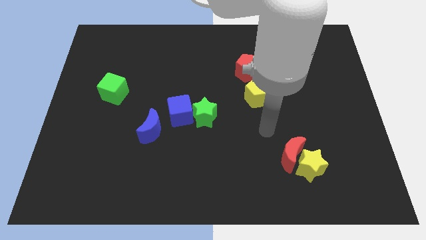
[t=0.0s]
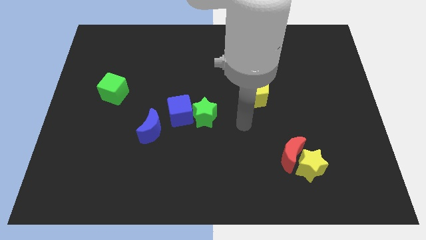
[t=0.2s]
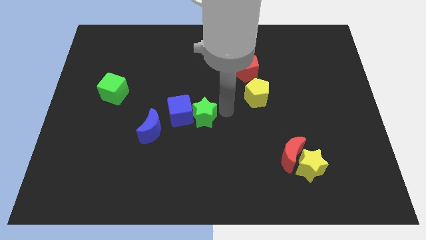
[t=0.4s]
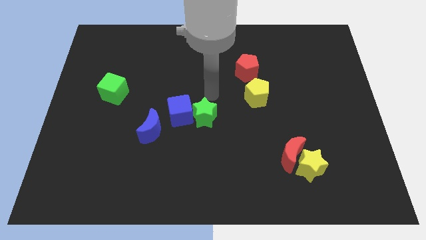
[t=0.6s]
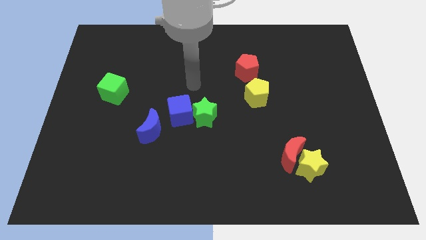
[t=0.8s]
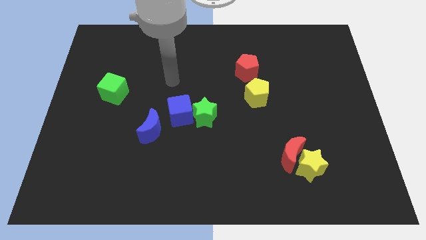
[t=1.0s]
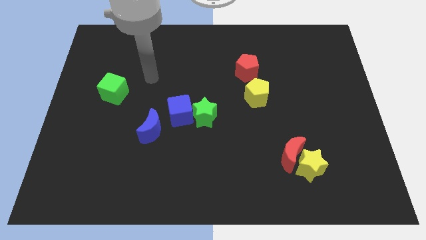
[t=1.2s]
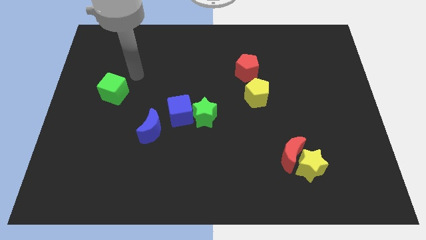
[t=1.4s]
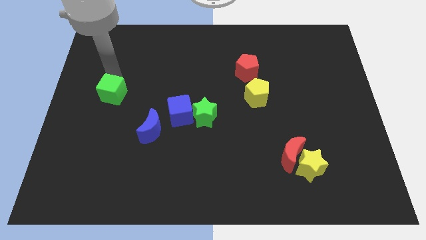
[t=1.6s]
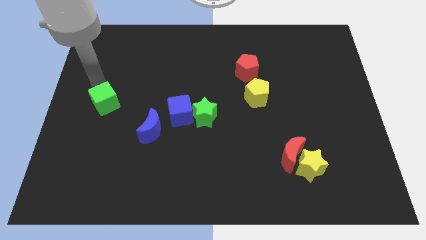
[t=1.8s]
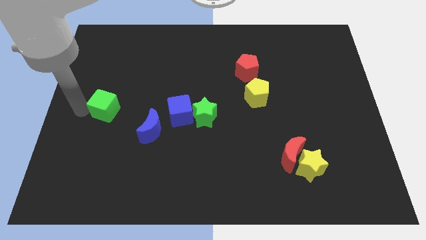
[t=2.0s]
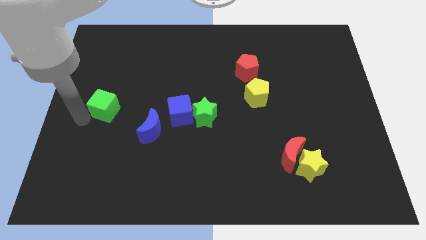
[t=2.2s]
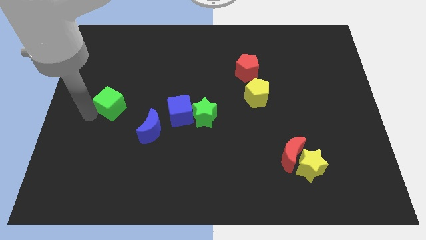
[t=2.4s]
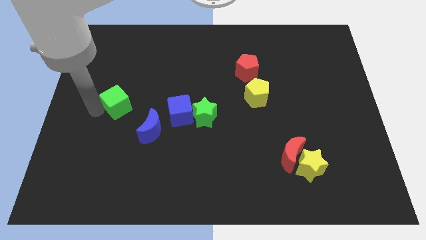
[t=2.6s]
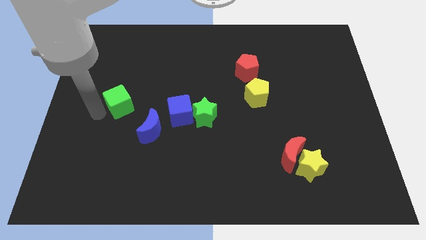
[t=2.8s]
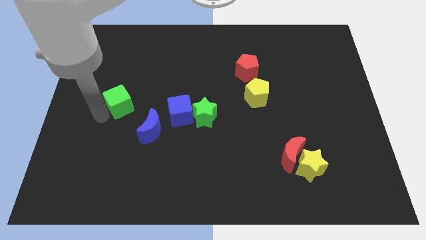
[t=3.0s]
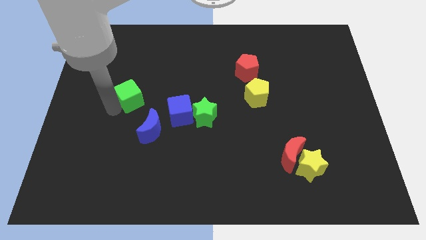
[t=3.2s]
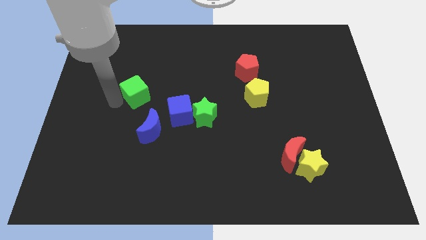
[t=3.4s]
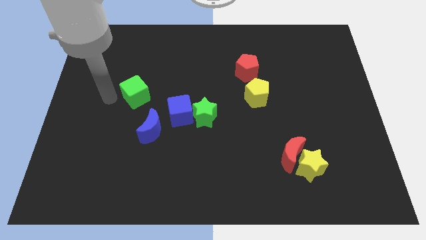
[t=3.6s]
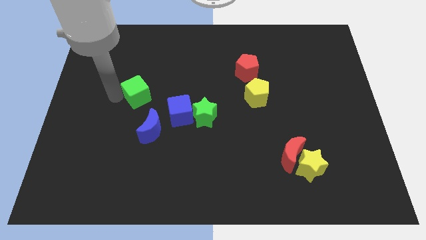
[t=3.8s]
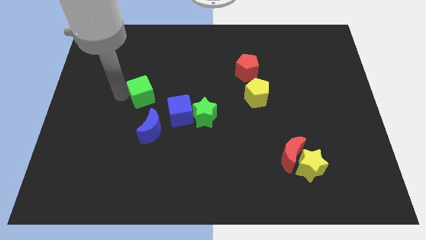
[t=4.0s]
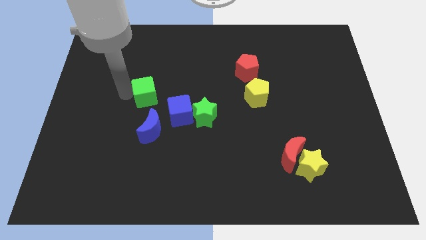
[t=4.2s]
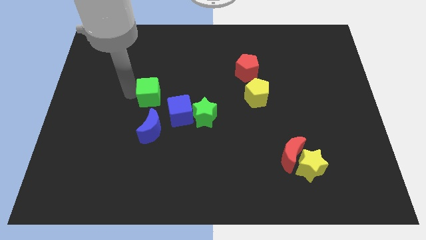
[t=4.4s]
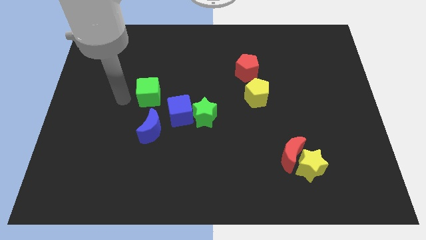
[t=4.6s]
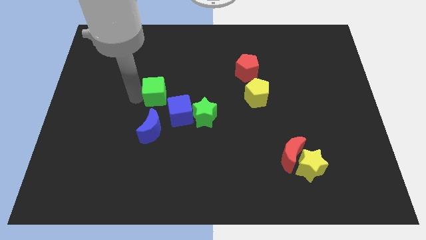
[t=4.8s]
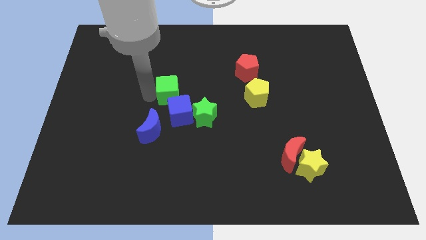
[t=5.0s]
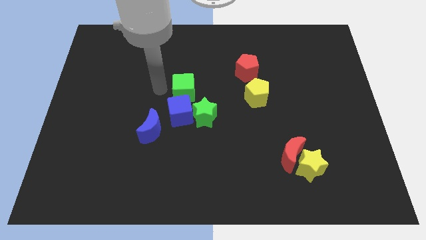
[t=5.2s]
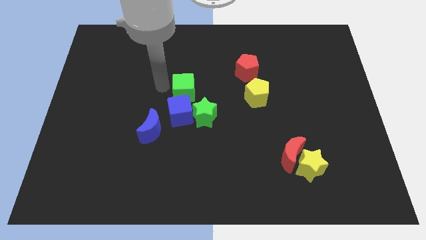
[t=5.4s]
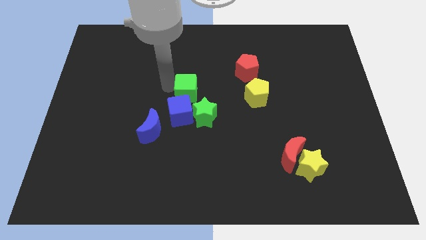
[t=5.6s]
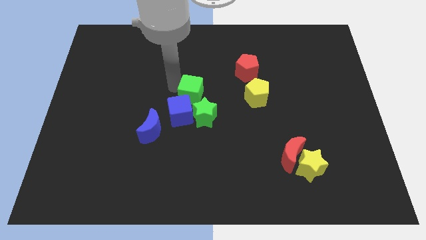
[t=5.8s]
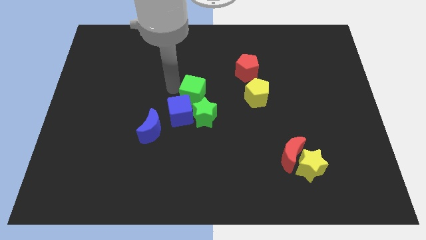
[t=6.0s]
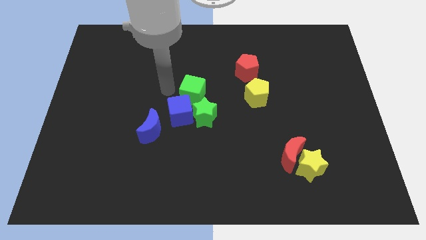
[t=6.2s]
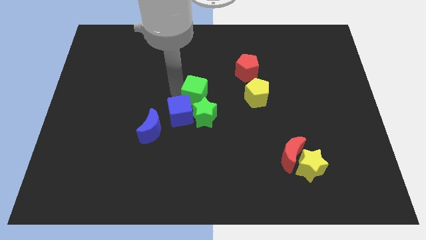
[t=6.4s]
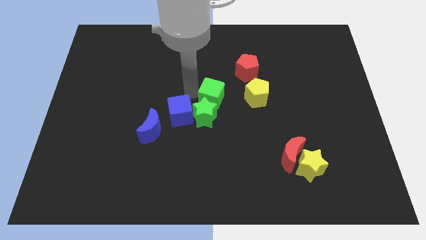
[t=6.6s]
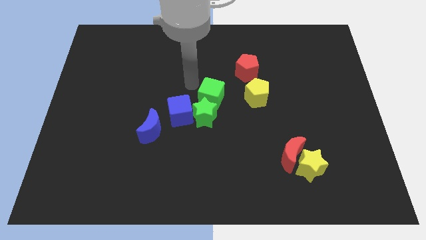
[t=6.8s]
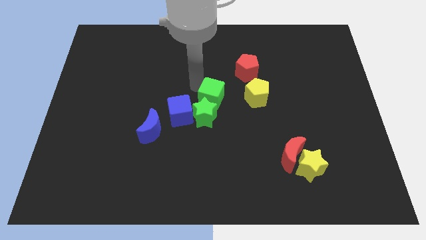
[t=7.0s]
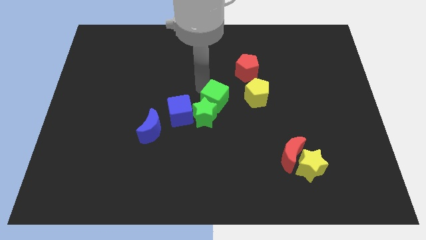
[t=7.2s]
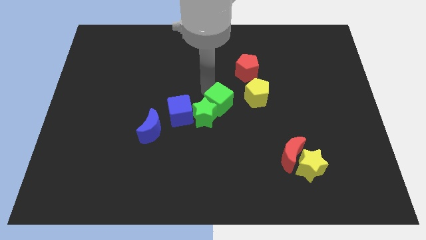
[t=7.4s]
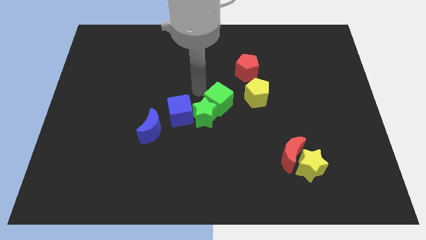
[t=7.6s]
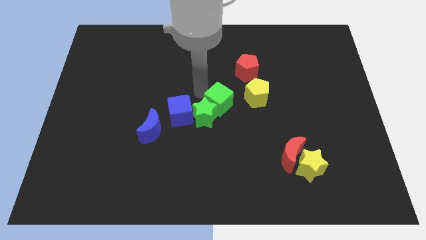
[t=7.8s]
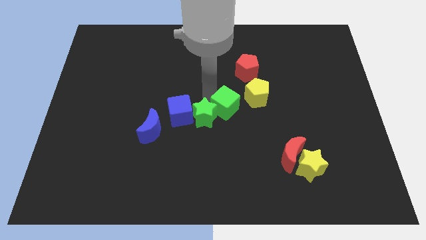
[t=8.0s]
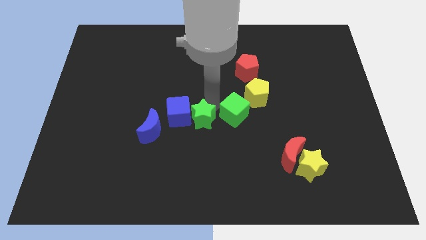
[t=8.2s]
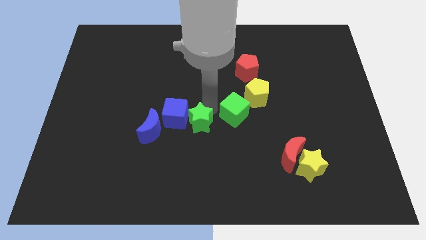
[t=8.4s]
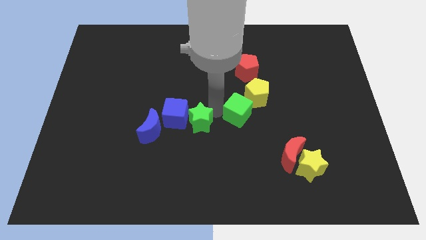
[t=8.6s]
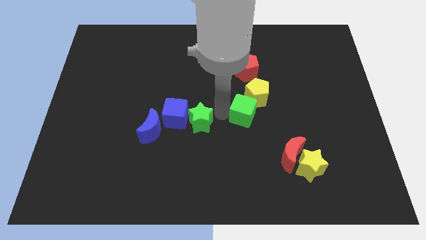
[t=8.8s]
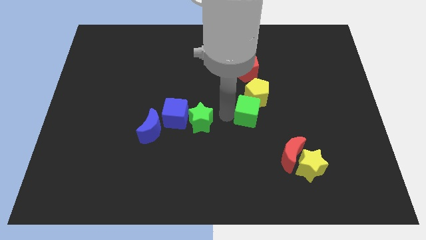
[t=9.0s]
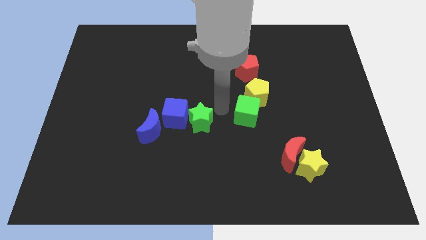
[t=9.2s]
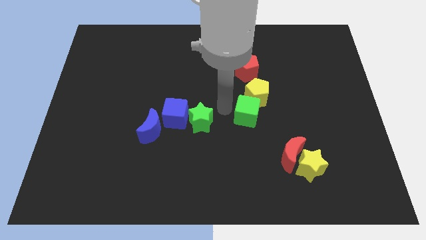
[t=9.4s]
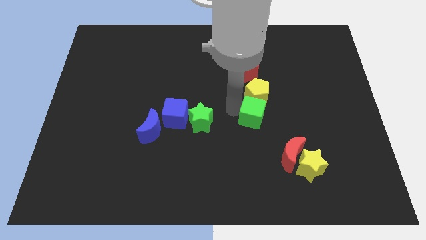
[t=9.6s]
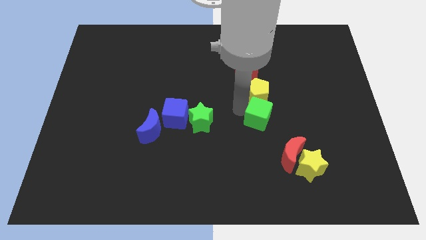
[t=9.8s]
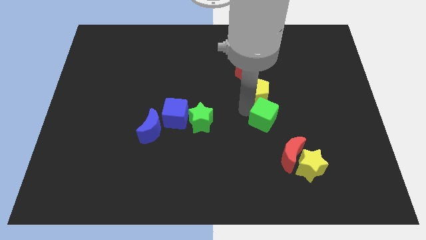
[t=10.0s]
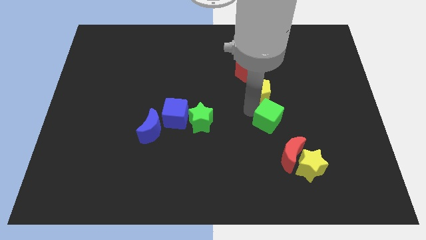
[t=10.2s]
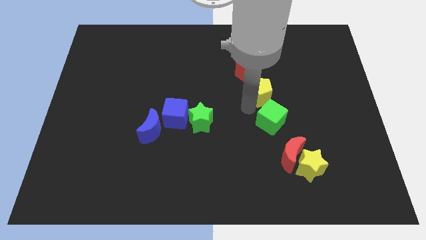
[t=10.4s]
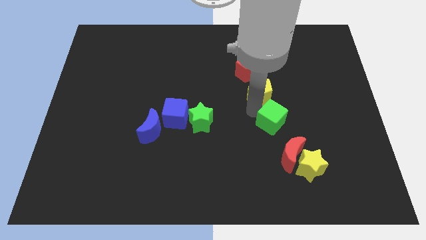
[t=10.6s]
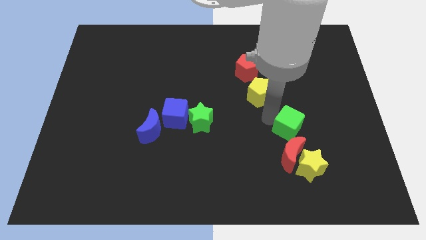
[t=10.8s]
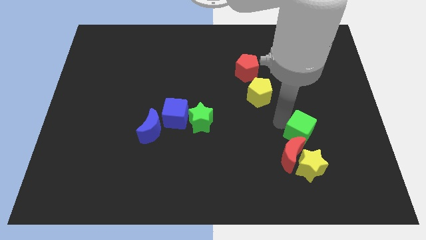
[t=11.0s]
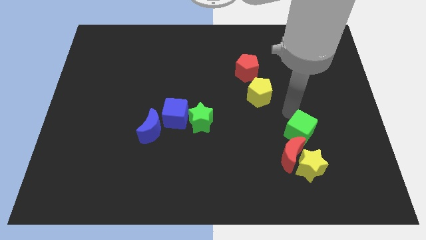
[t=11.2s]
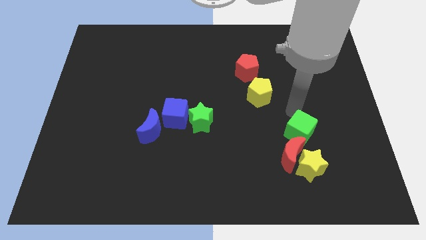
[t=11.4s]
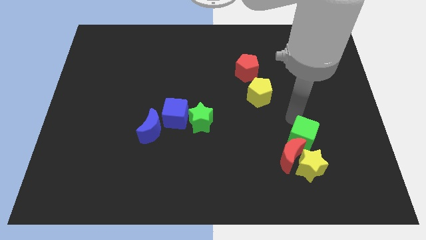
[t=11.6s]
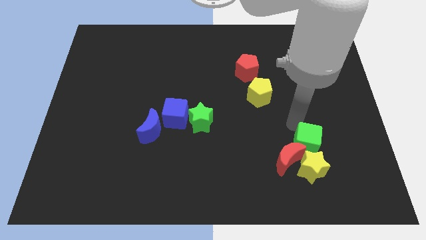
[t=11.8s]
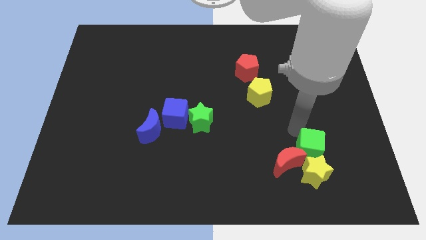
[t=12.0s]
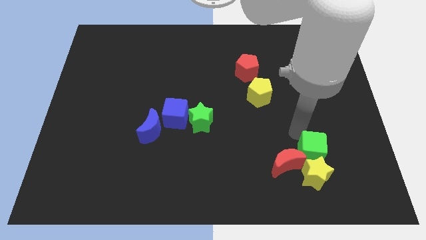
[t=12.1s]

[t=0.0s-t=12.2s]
move the green cube towards the yellow star

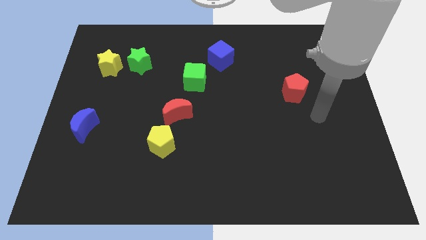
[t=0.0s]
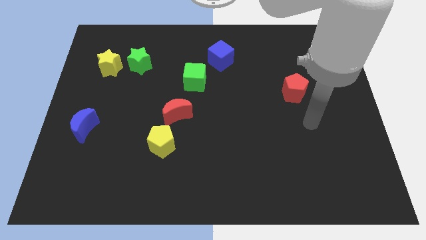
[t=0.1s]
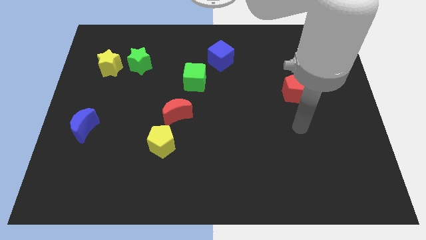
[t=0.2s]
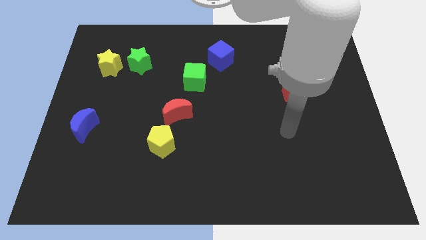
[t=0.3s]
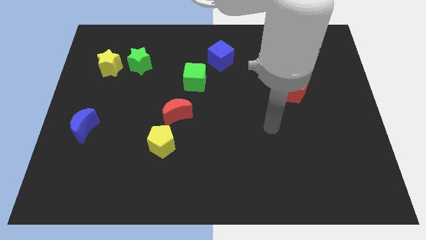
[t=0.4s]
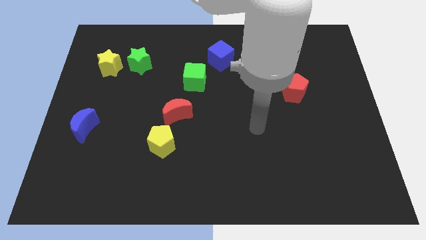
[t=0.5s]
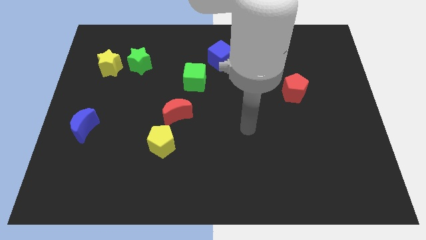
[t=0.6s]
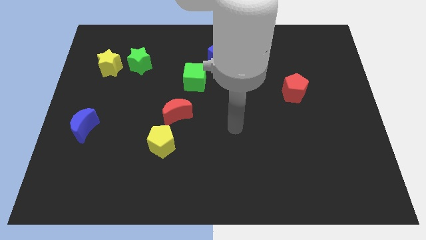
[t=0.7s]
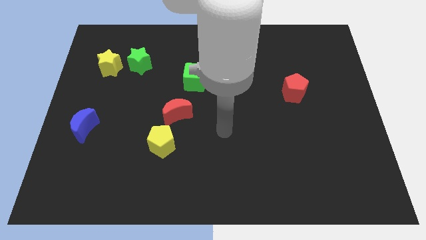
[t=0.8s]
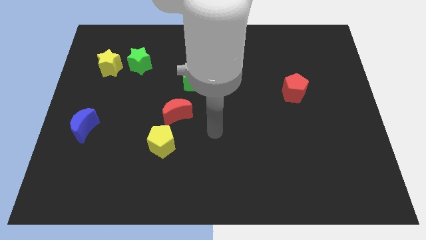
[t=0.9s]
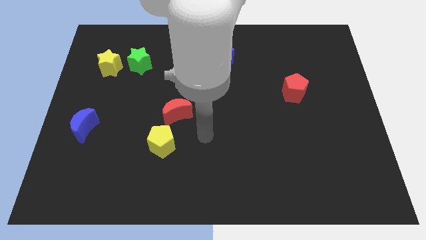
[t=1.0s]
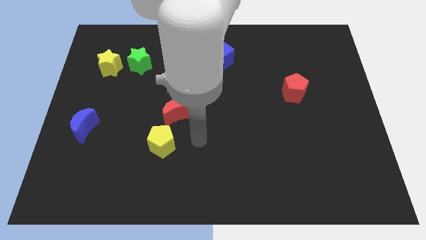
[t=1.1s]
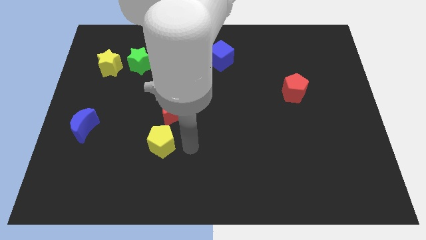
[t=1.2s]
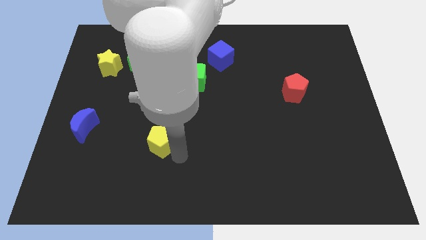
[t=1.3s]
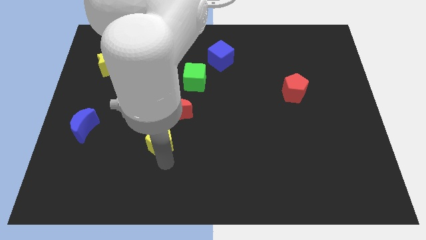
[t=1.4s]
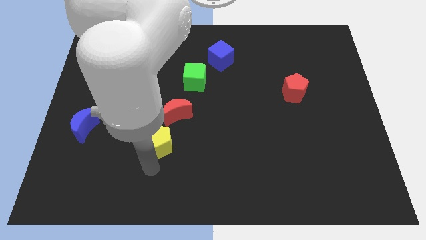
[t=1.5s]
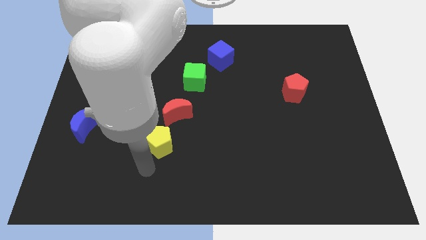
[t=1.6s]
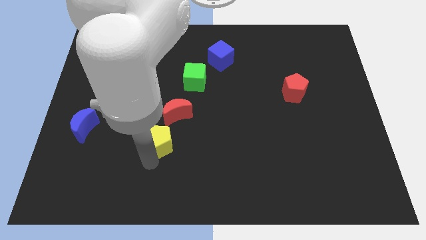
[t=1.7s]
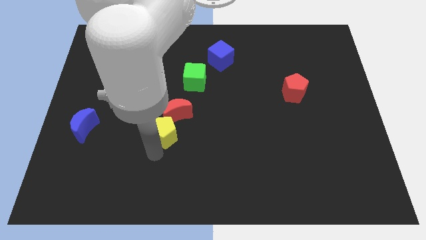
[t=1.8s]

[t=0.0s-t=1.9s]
push the yellow pentagon to the red moon
